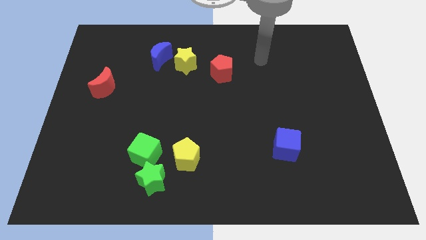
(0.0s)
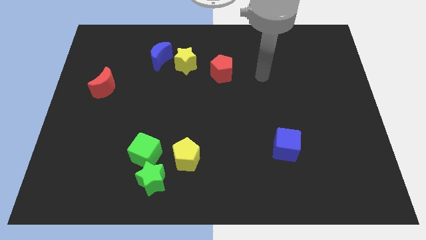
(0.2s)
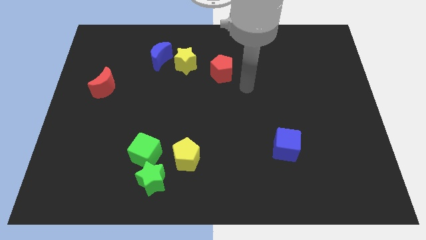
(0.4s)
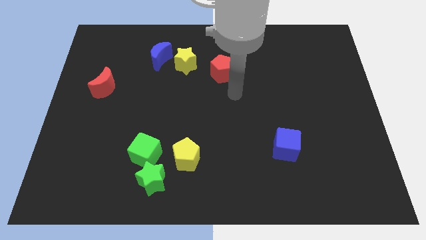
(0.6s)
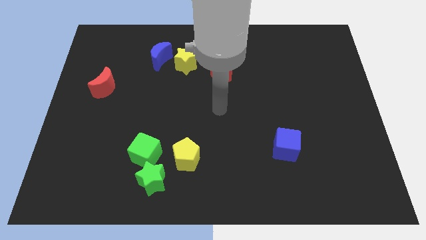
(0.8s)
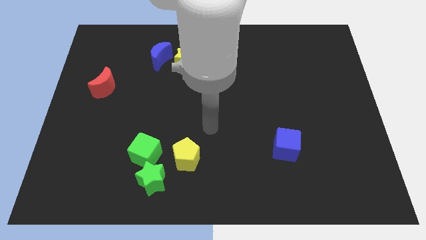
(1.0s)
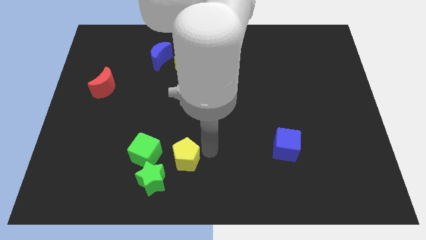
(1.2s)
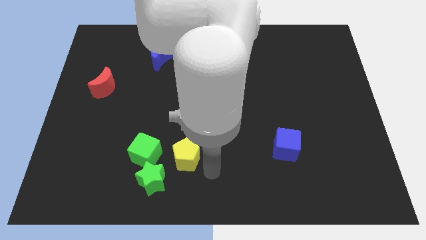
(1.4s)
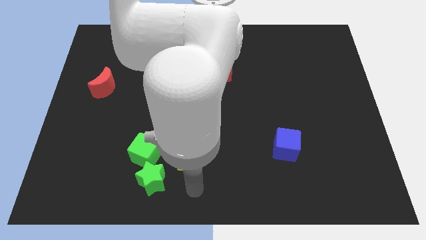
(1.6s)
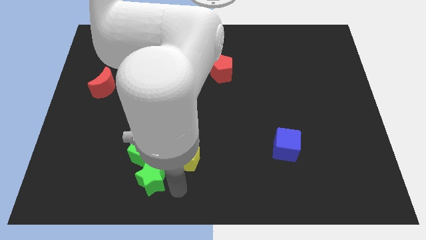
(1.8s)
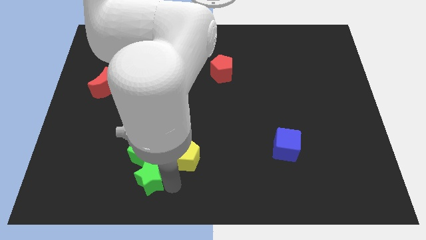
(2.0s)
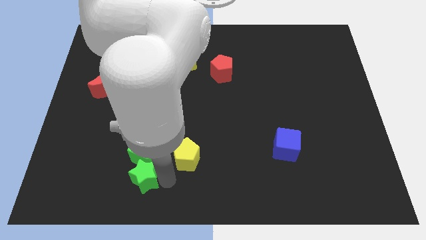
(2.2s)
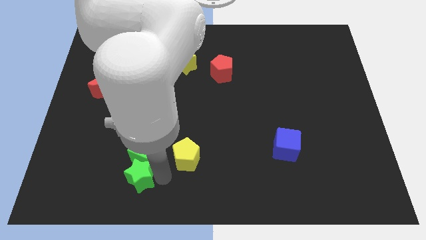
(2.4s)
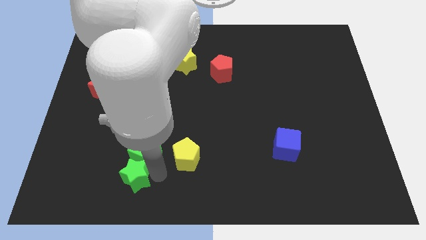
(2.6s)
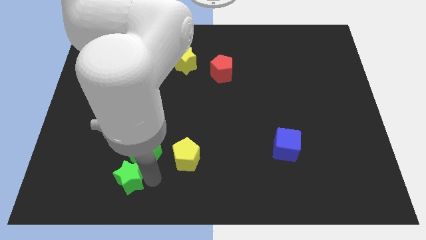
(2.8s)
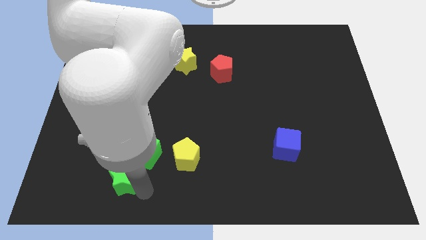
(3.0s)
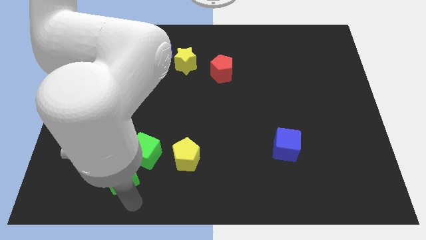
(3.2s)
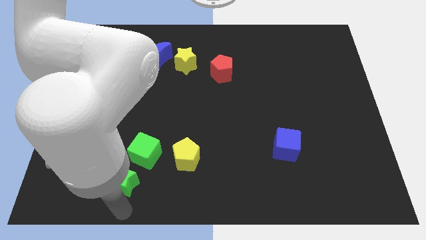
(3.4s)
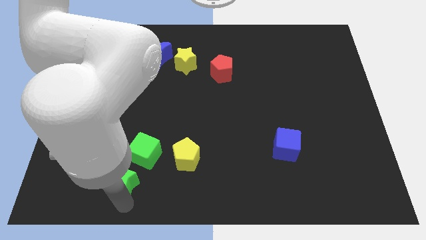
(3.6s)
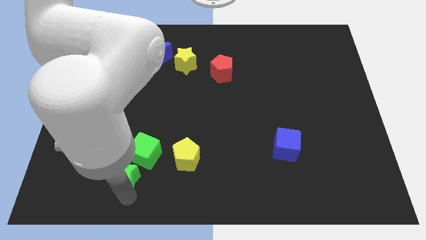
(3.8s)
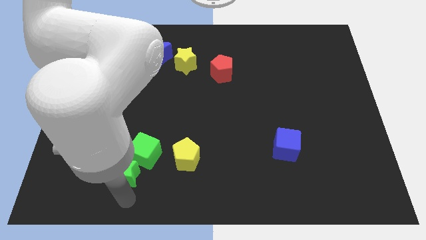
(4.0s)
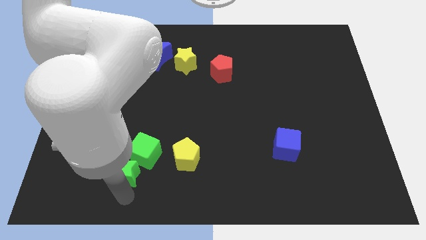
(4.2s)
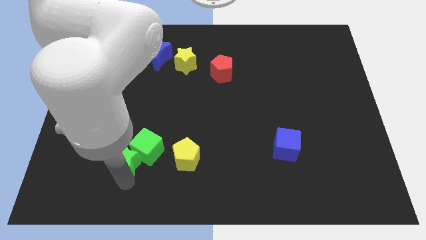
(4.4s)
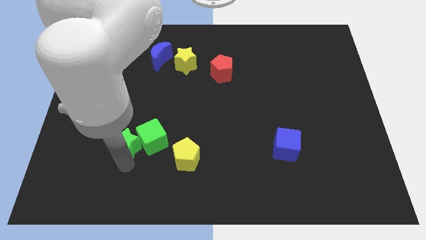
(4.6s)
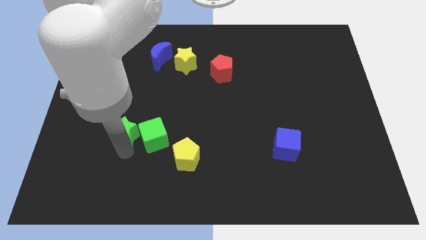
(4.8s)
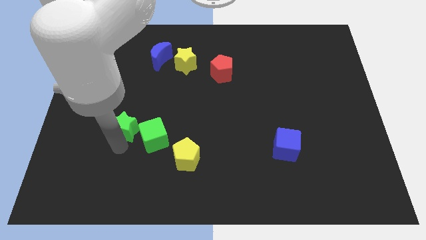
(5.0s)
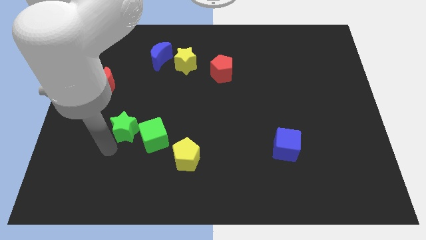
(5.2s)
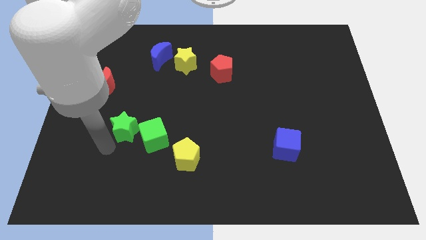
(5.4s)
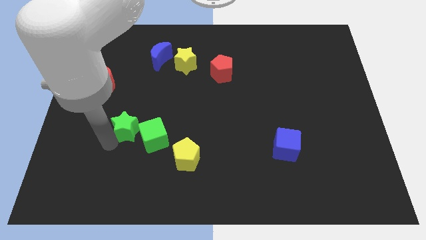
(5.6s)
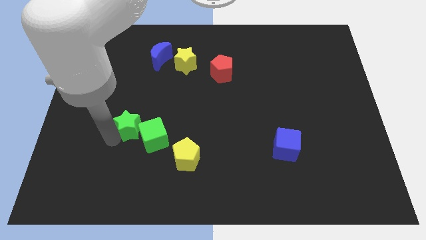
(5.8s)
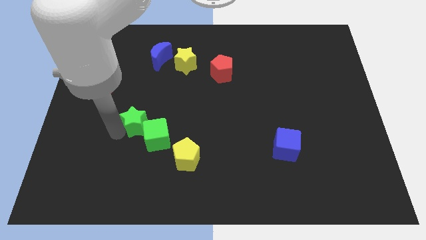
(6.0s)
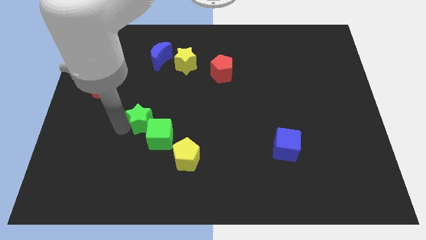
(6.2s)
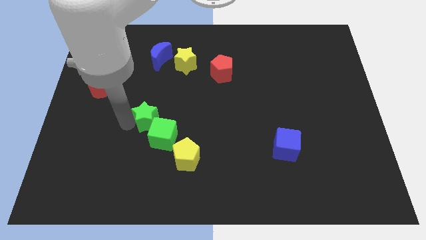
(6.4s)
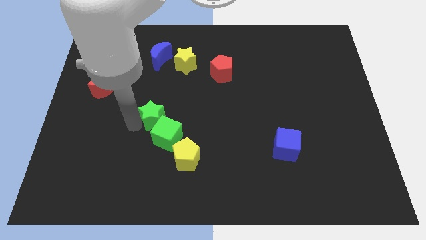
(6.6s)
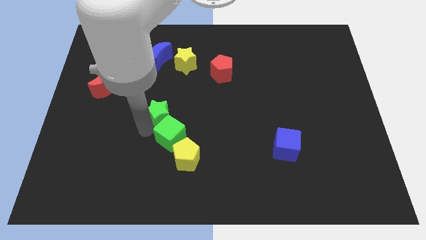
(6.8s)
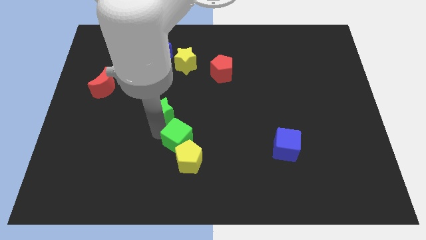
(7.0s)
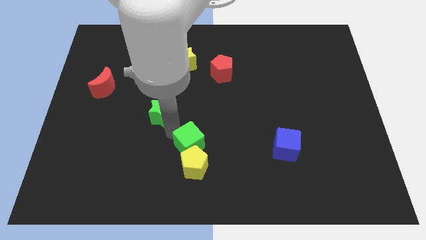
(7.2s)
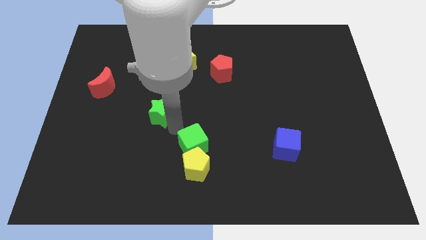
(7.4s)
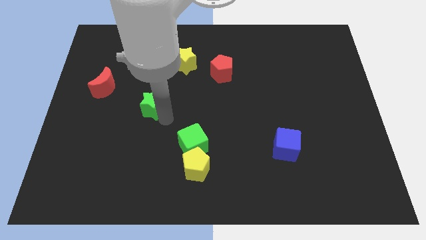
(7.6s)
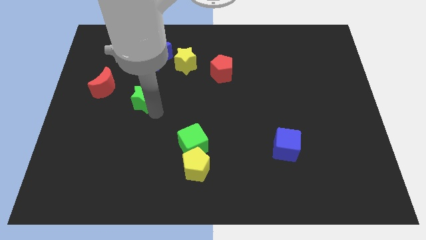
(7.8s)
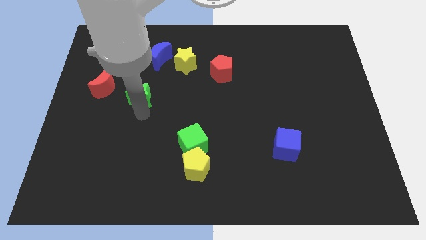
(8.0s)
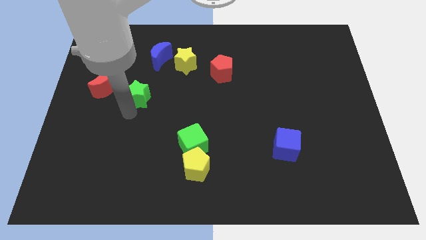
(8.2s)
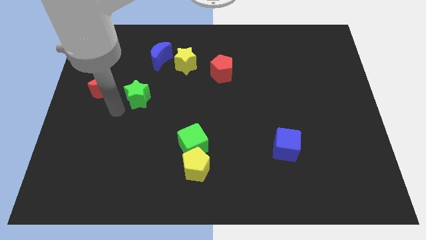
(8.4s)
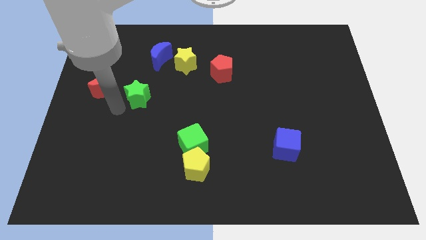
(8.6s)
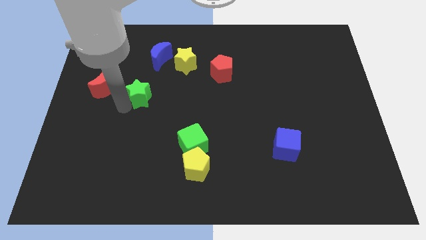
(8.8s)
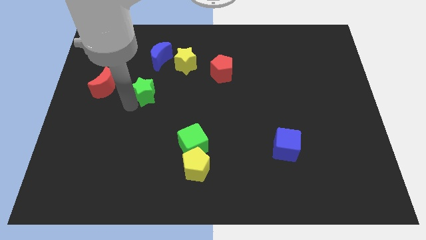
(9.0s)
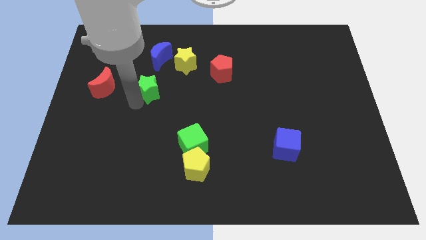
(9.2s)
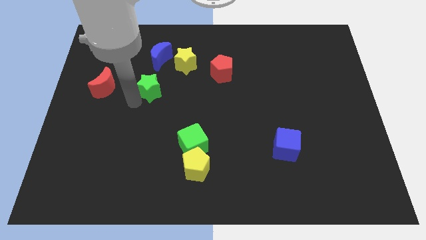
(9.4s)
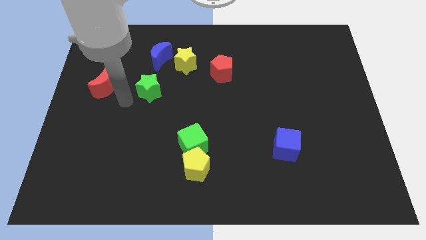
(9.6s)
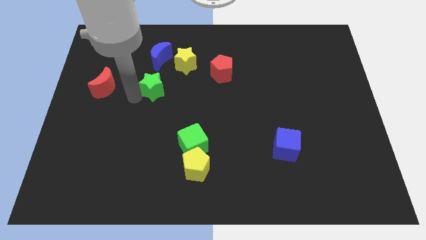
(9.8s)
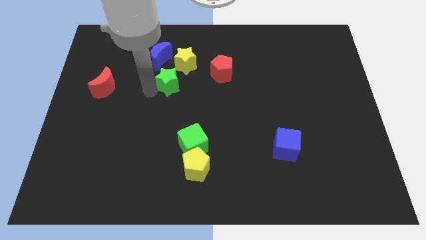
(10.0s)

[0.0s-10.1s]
put the green star to the left of the red pentagon

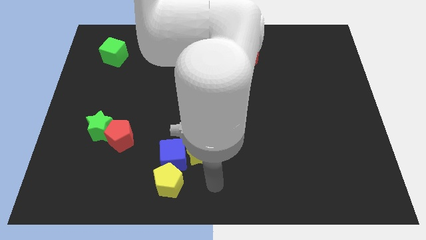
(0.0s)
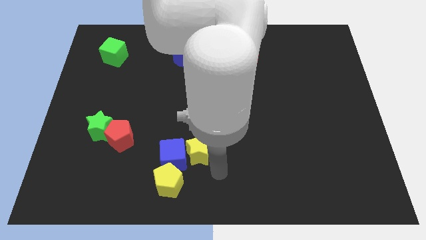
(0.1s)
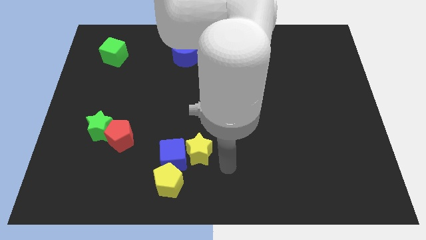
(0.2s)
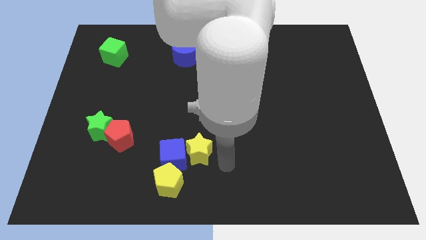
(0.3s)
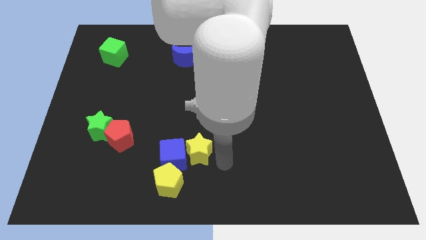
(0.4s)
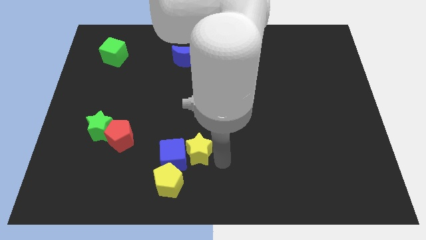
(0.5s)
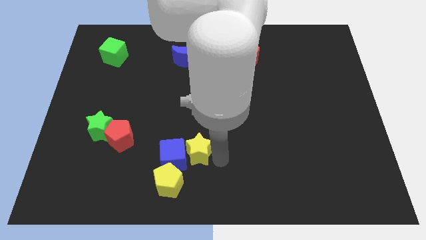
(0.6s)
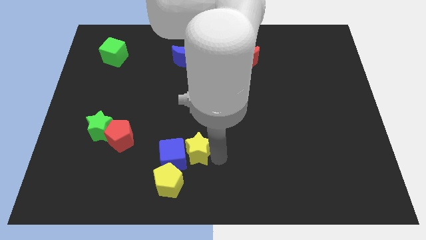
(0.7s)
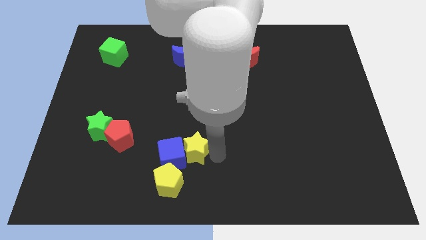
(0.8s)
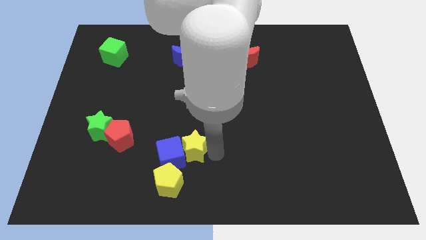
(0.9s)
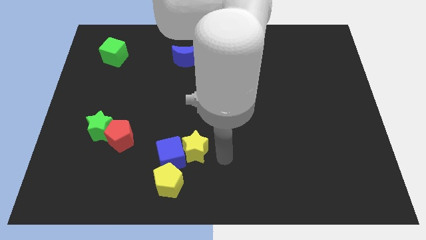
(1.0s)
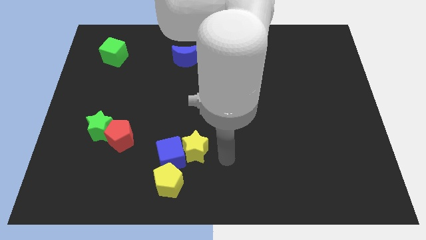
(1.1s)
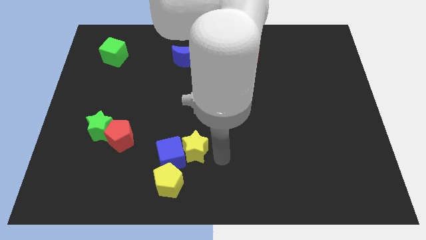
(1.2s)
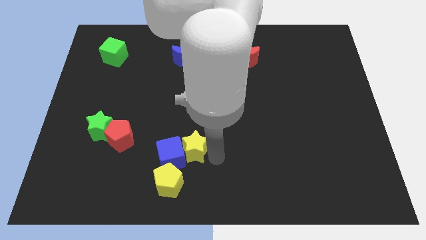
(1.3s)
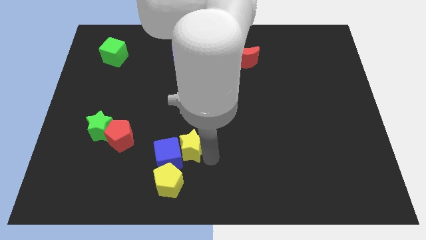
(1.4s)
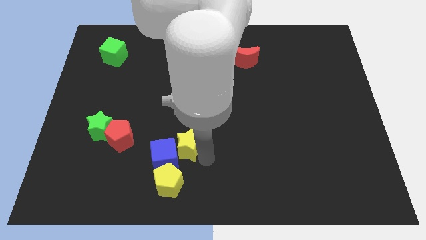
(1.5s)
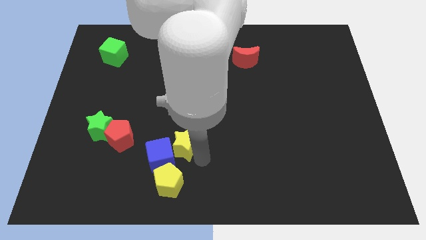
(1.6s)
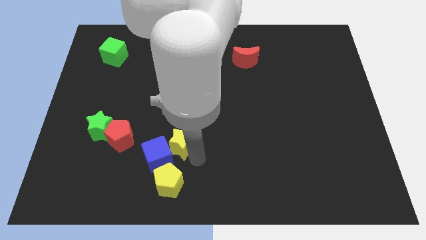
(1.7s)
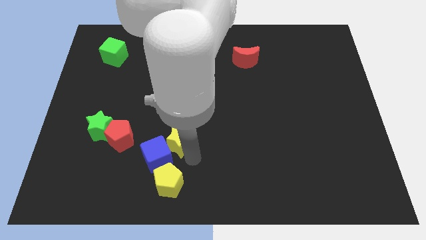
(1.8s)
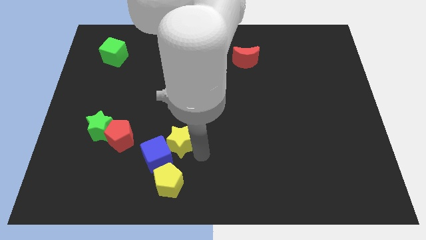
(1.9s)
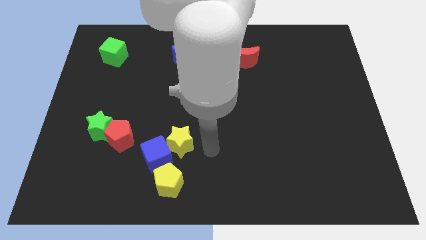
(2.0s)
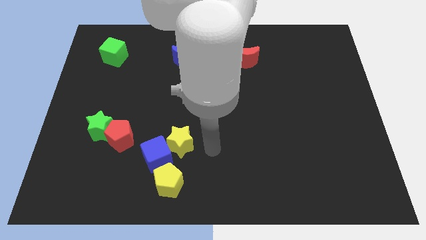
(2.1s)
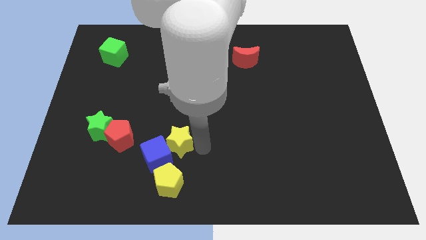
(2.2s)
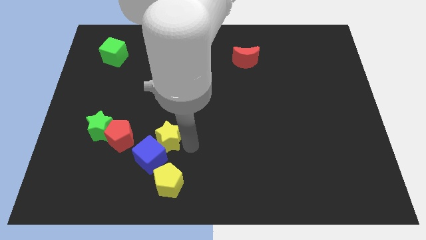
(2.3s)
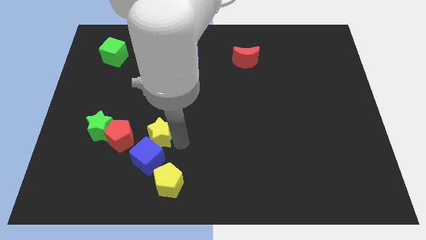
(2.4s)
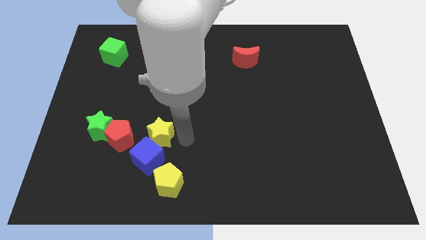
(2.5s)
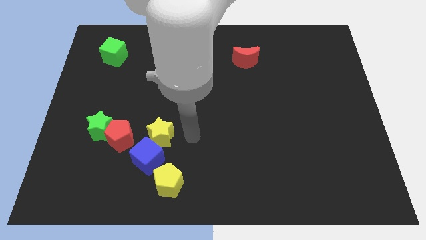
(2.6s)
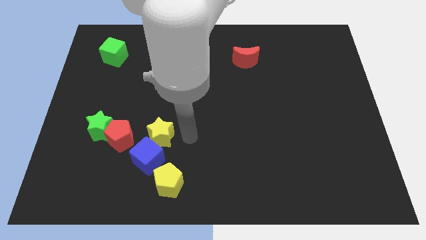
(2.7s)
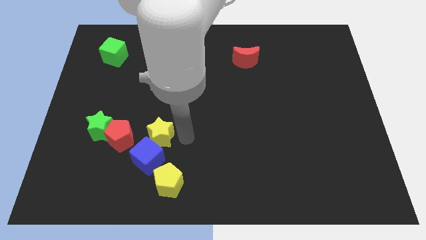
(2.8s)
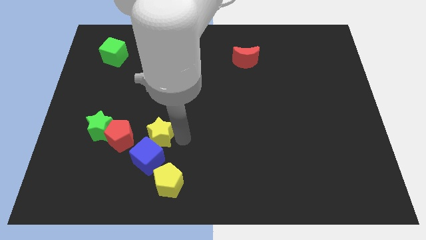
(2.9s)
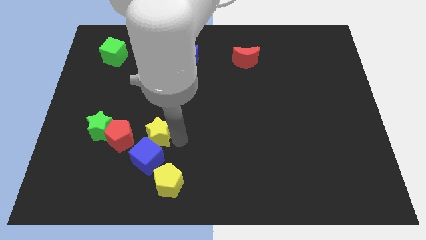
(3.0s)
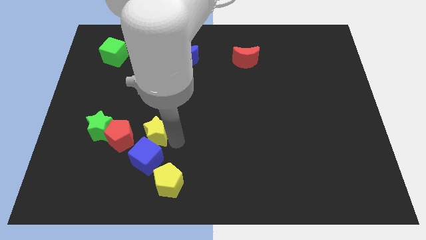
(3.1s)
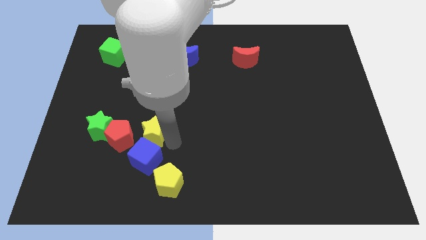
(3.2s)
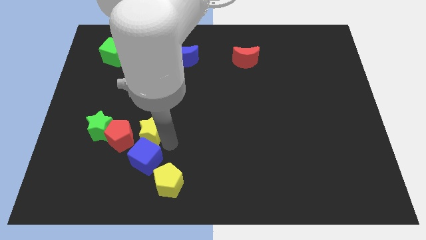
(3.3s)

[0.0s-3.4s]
push the yellow star to the top left of the blue cube

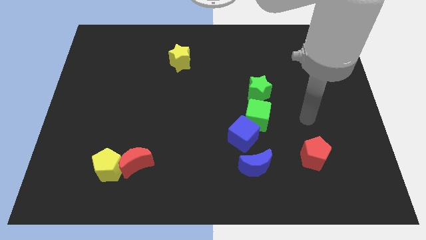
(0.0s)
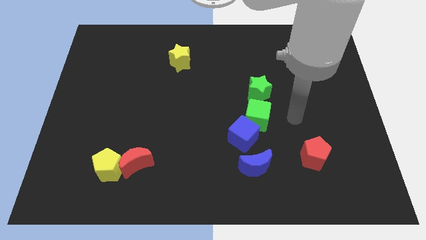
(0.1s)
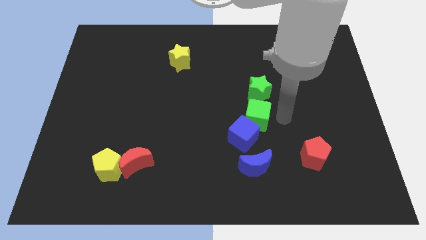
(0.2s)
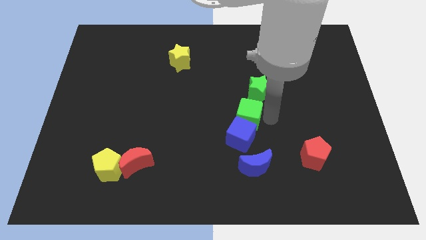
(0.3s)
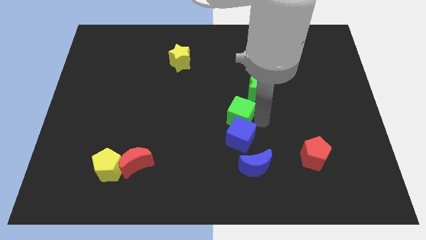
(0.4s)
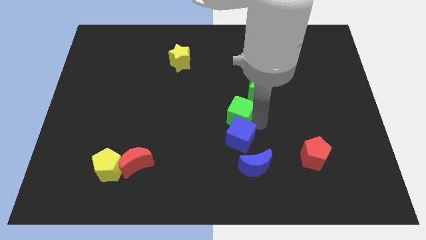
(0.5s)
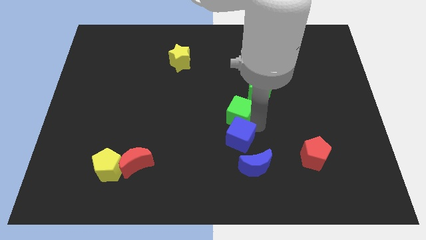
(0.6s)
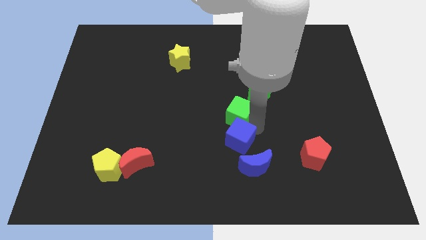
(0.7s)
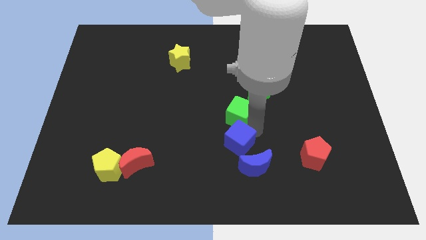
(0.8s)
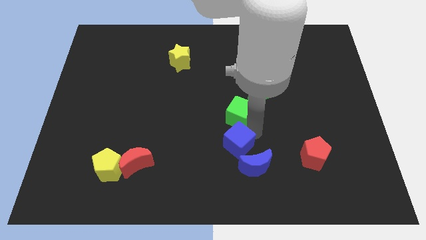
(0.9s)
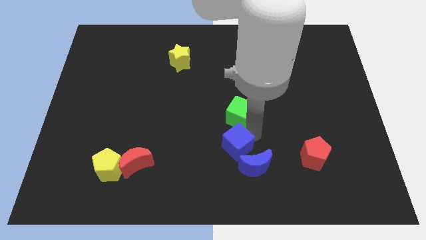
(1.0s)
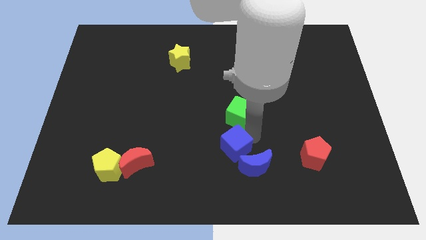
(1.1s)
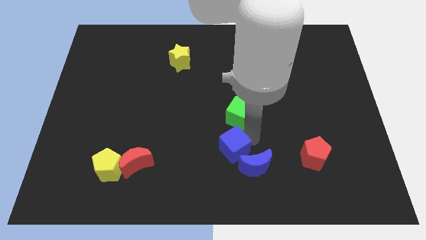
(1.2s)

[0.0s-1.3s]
move the blue cube just left of the blue moon
